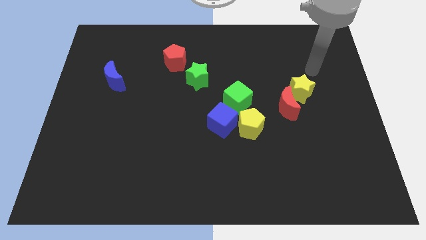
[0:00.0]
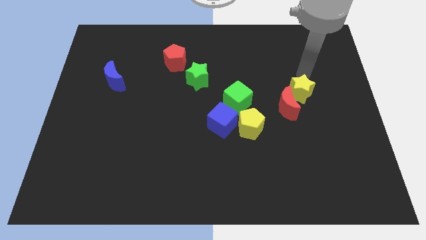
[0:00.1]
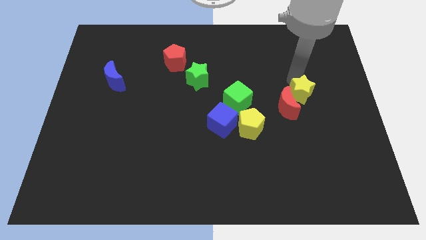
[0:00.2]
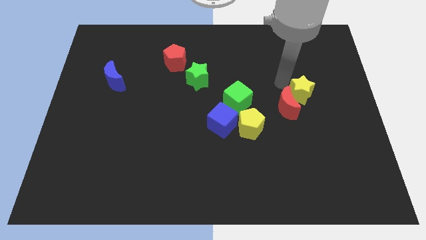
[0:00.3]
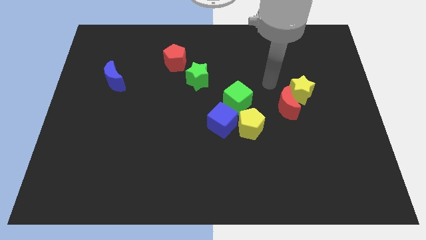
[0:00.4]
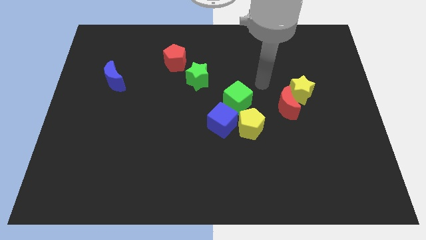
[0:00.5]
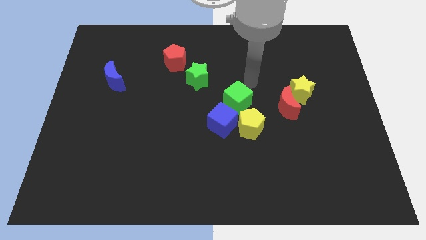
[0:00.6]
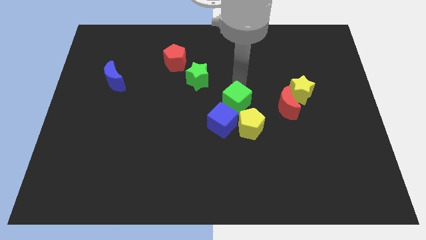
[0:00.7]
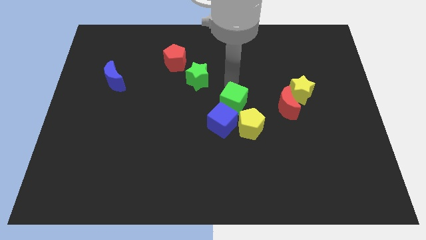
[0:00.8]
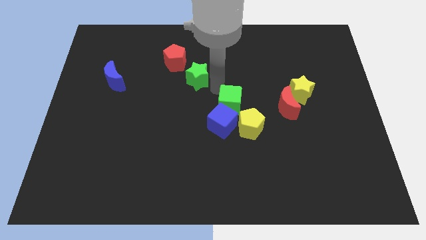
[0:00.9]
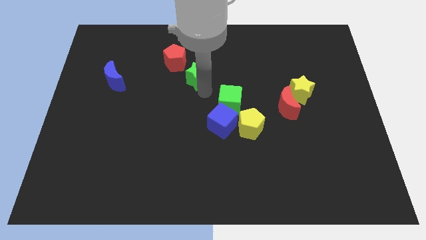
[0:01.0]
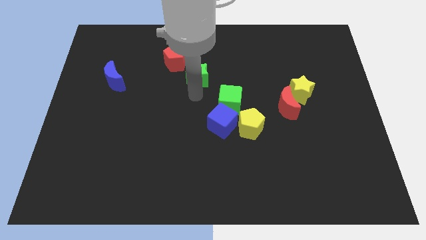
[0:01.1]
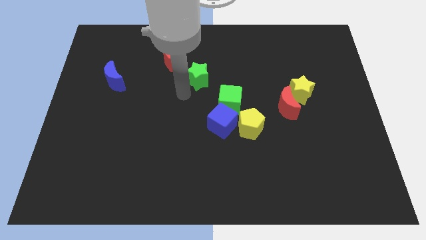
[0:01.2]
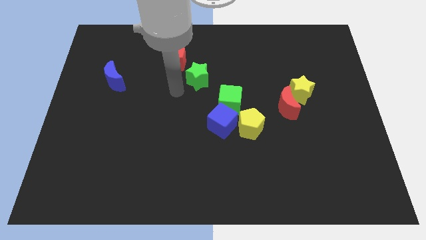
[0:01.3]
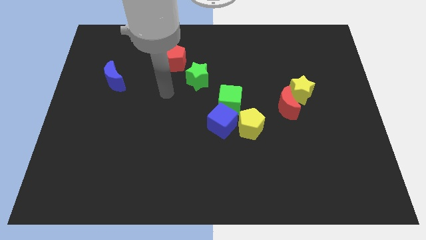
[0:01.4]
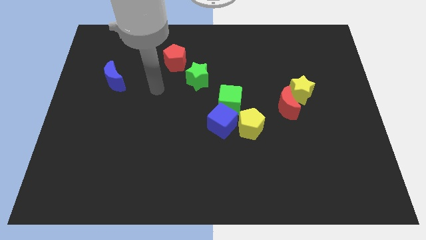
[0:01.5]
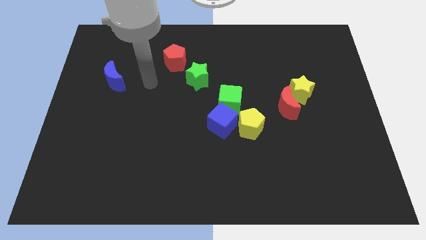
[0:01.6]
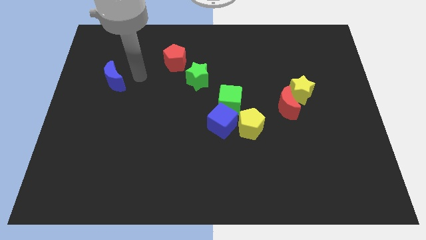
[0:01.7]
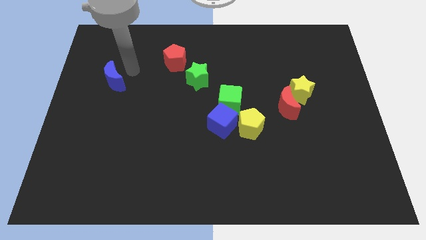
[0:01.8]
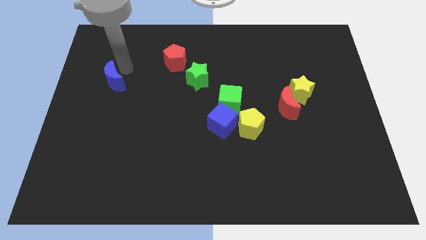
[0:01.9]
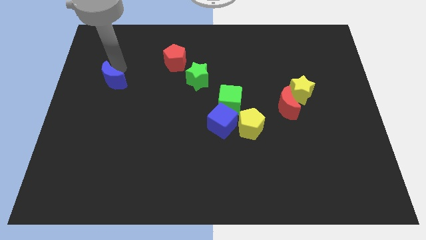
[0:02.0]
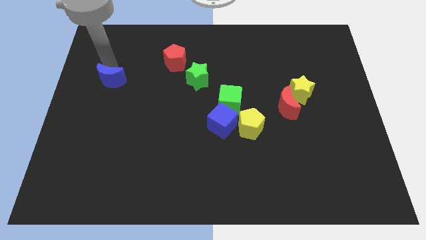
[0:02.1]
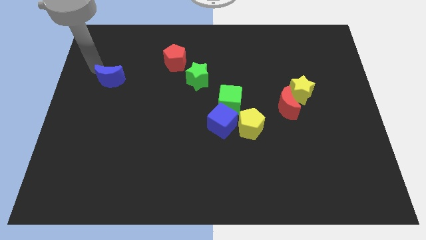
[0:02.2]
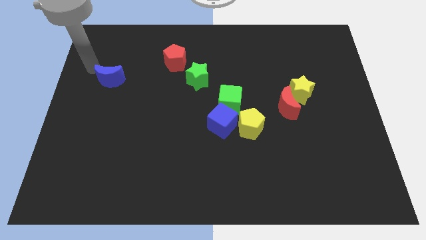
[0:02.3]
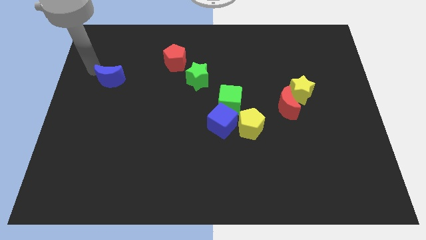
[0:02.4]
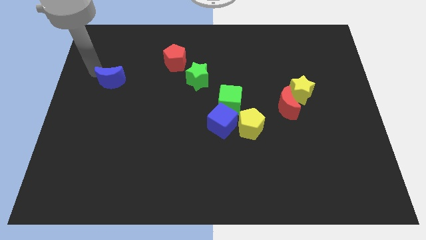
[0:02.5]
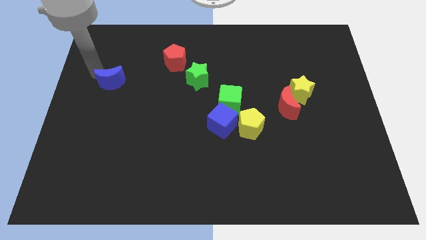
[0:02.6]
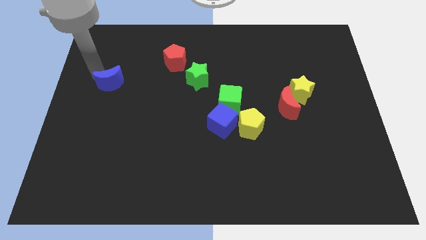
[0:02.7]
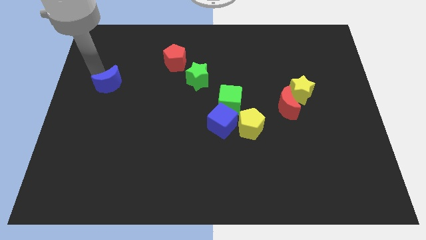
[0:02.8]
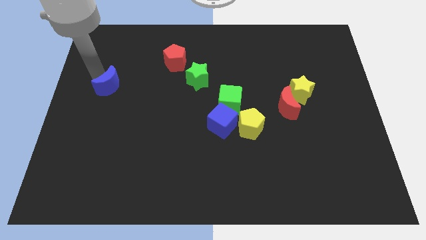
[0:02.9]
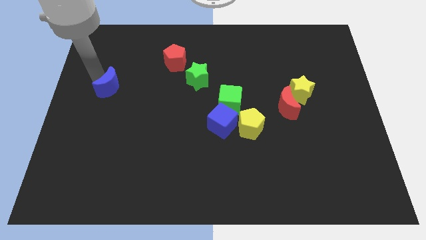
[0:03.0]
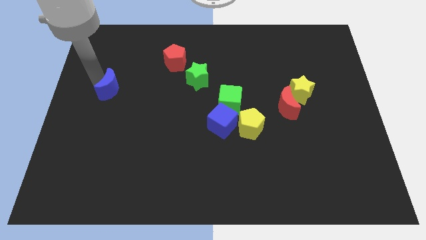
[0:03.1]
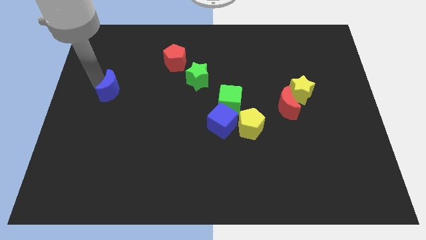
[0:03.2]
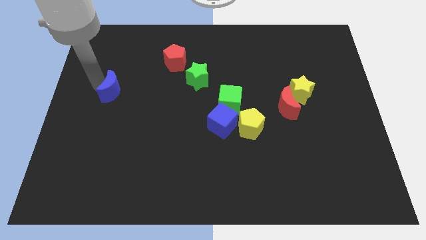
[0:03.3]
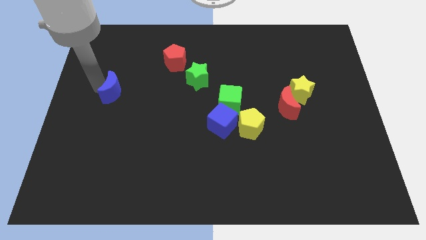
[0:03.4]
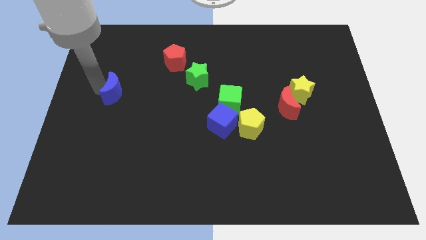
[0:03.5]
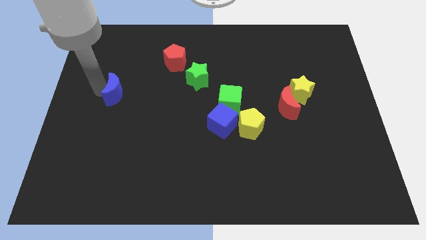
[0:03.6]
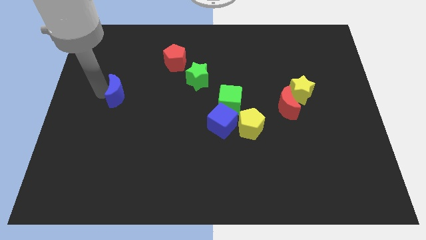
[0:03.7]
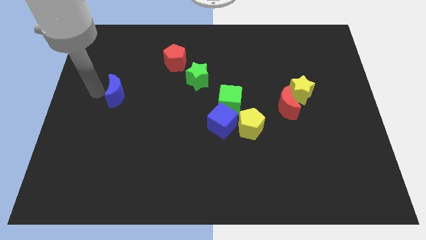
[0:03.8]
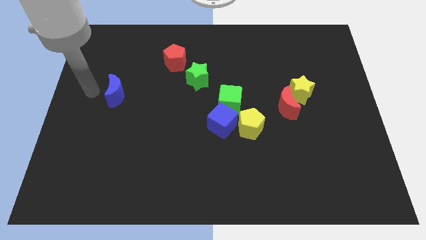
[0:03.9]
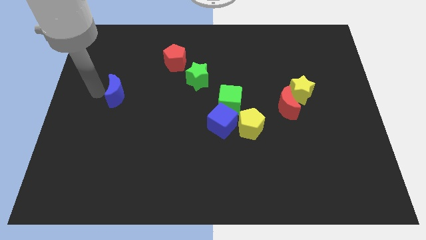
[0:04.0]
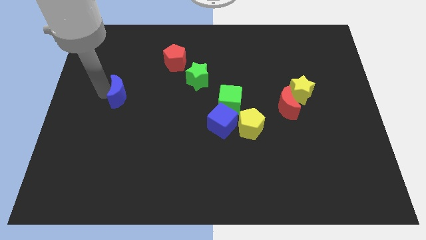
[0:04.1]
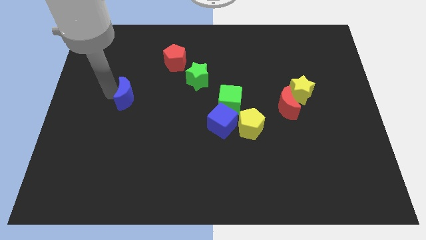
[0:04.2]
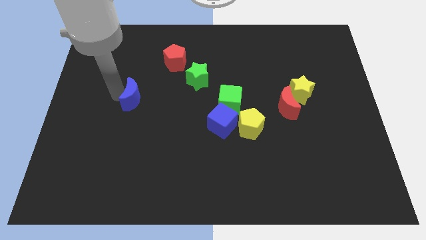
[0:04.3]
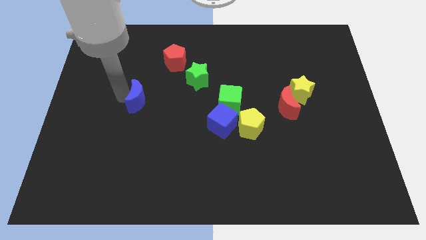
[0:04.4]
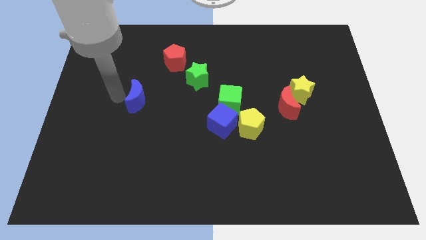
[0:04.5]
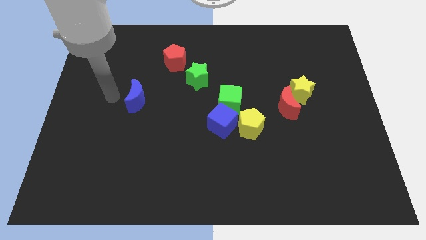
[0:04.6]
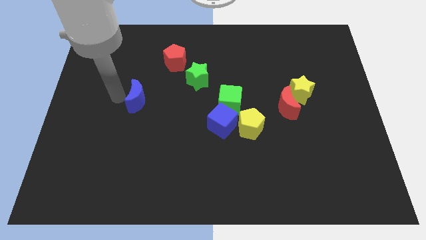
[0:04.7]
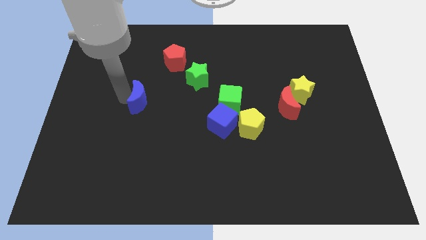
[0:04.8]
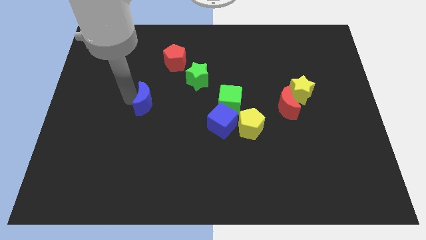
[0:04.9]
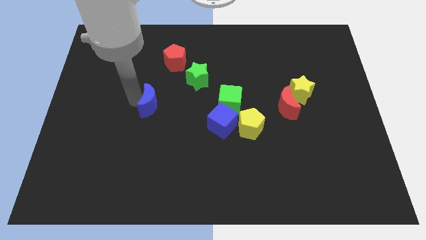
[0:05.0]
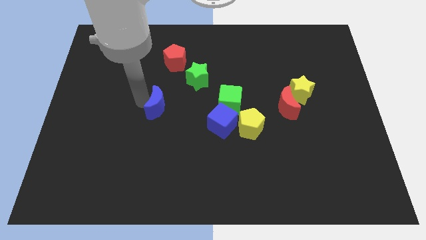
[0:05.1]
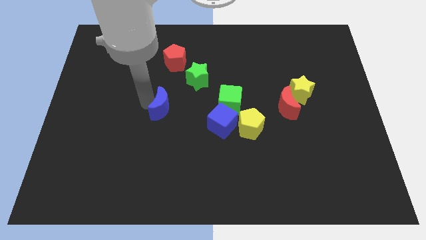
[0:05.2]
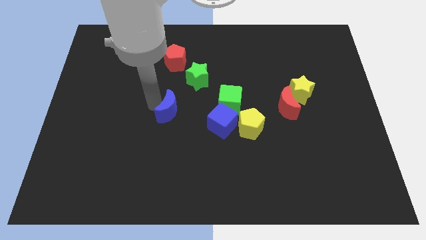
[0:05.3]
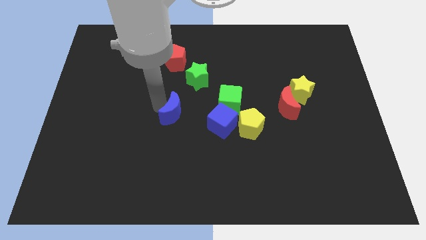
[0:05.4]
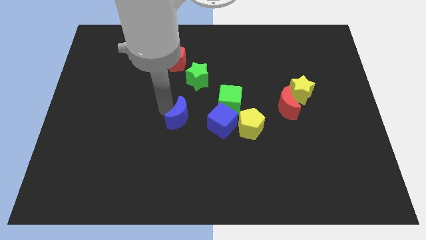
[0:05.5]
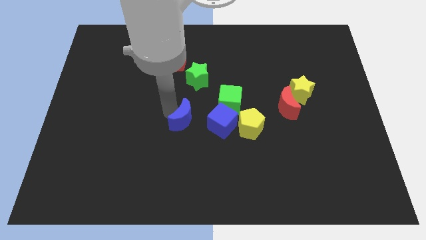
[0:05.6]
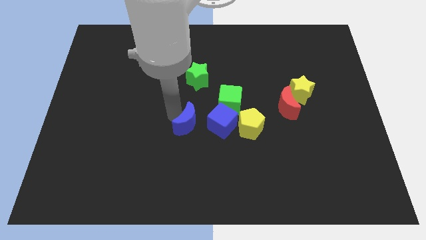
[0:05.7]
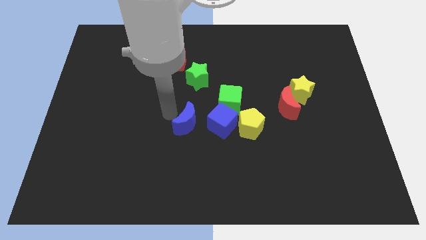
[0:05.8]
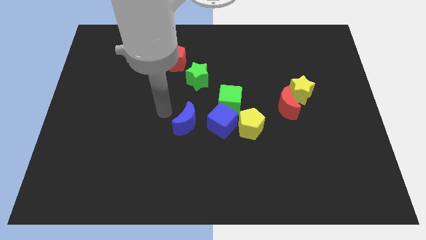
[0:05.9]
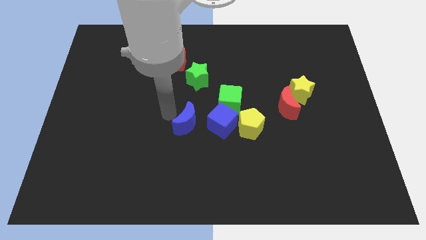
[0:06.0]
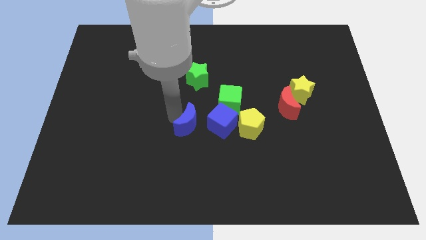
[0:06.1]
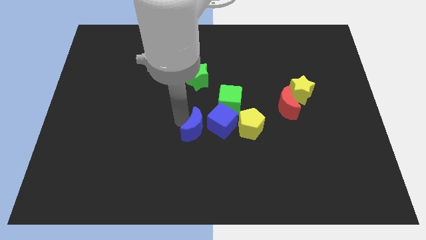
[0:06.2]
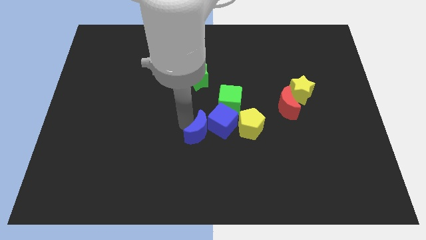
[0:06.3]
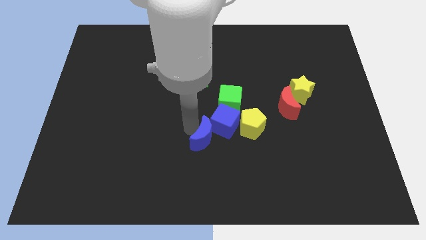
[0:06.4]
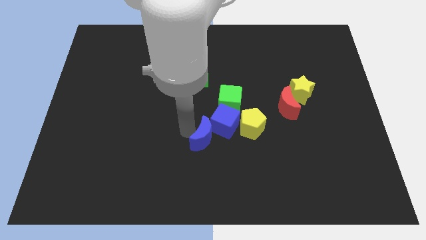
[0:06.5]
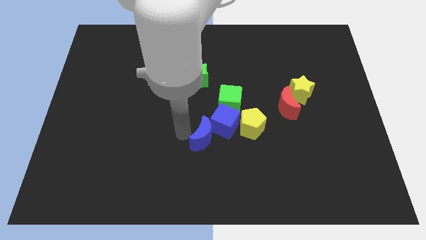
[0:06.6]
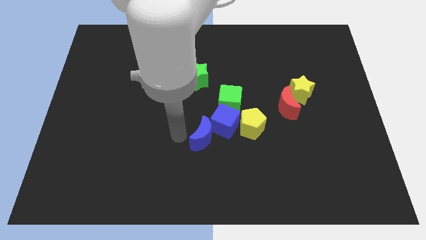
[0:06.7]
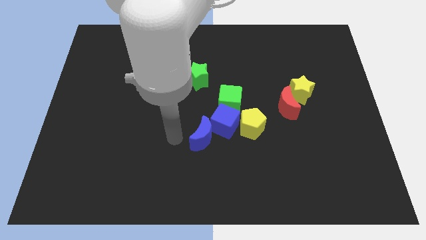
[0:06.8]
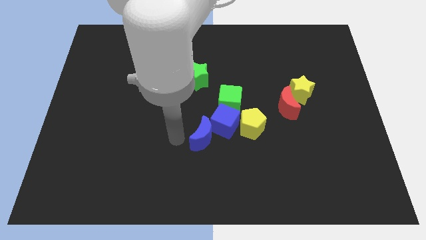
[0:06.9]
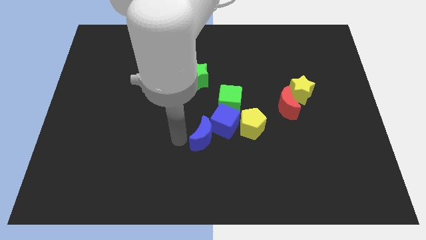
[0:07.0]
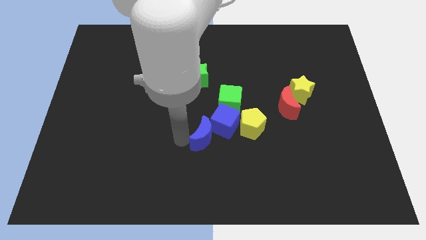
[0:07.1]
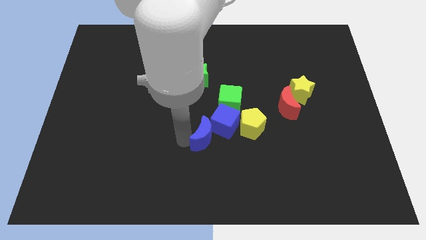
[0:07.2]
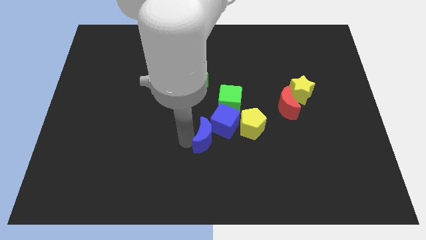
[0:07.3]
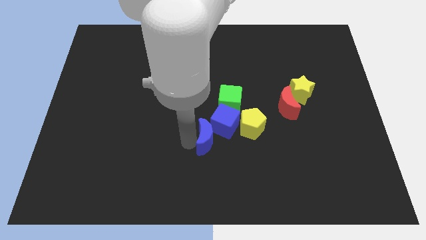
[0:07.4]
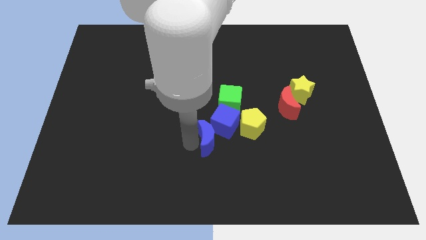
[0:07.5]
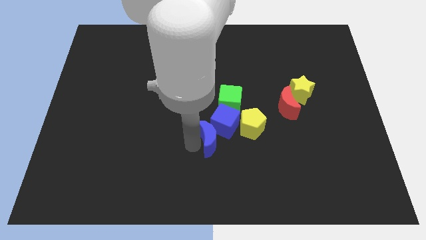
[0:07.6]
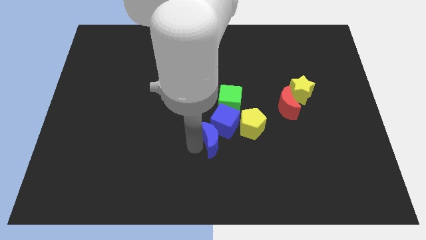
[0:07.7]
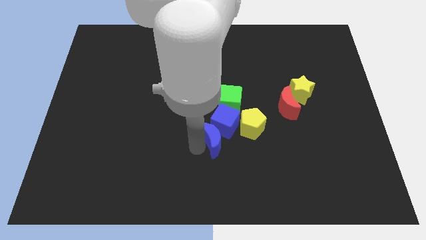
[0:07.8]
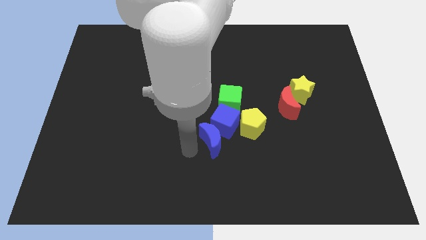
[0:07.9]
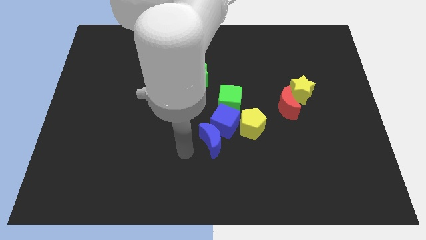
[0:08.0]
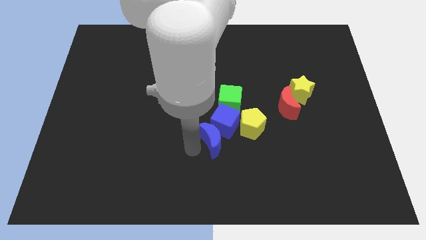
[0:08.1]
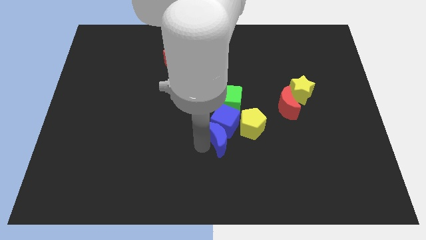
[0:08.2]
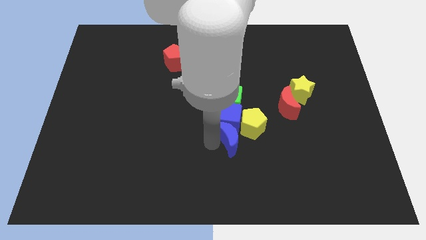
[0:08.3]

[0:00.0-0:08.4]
push the blue moon towards the yellow pentagon
